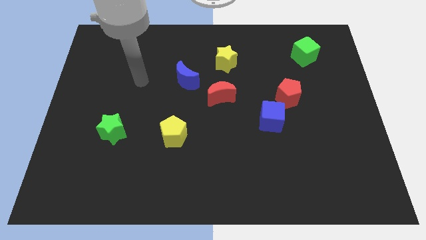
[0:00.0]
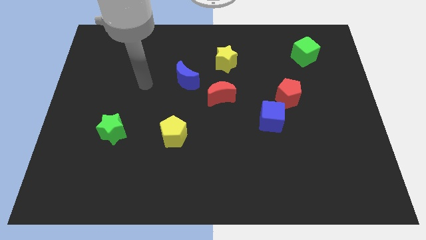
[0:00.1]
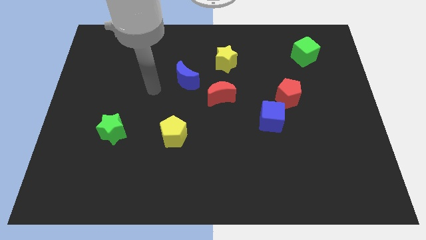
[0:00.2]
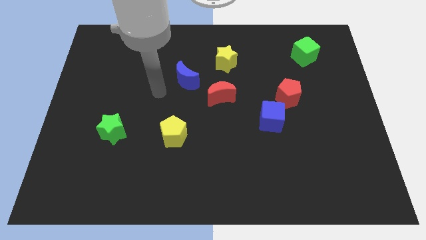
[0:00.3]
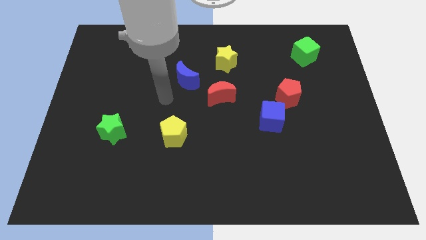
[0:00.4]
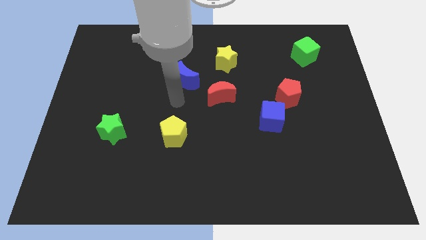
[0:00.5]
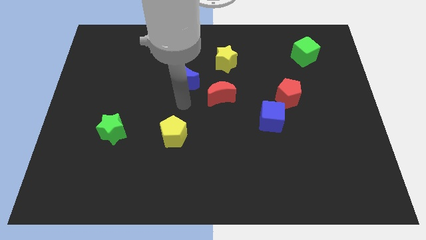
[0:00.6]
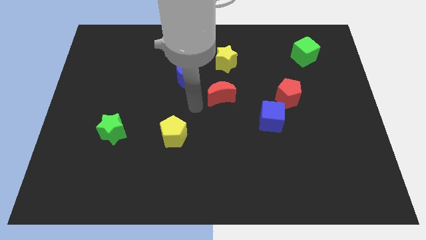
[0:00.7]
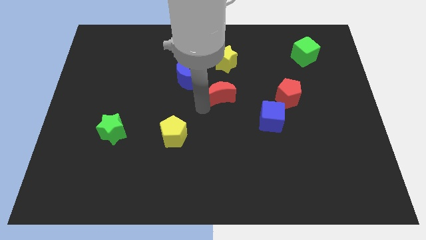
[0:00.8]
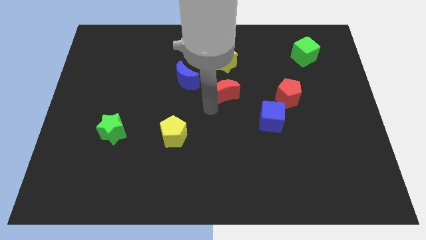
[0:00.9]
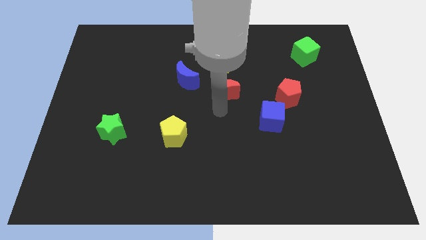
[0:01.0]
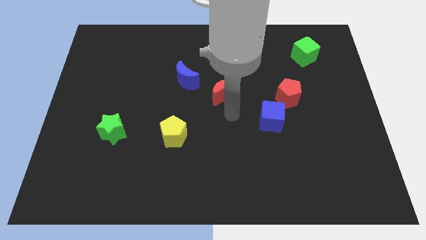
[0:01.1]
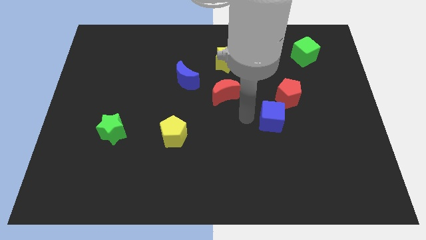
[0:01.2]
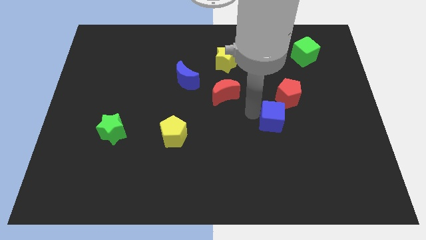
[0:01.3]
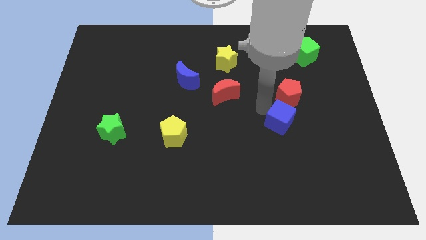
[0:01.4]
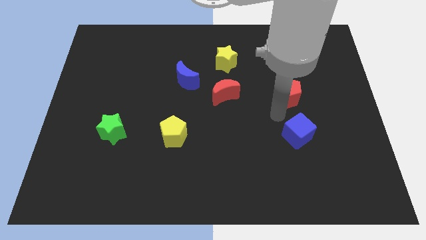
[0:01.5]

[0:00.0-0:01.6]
move the red pentagon away from the blue cube

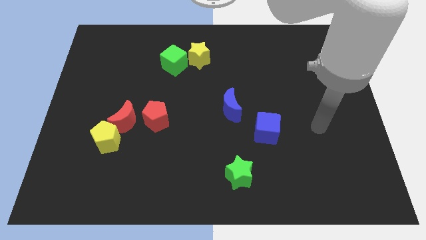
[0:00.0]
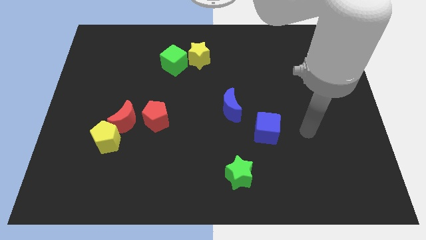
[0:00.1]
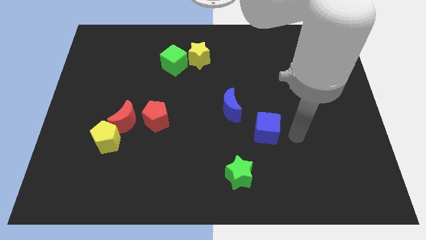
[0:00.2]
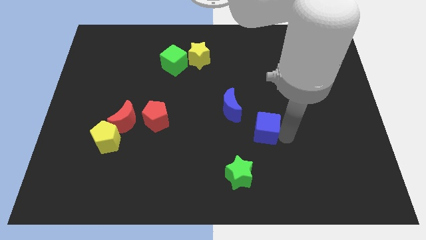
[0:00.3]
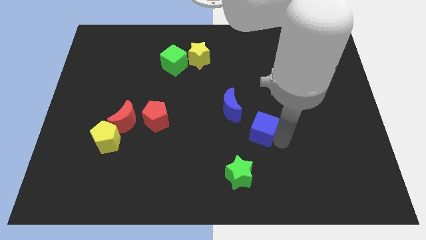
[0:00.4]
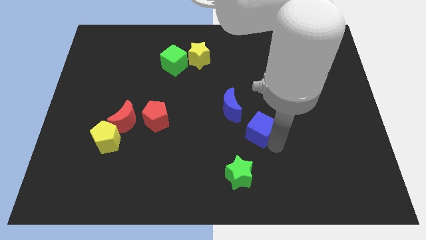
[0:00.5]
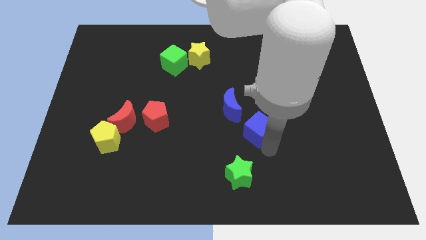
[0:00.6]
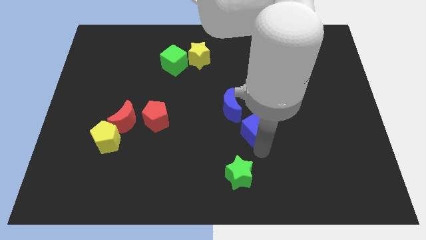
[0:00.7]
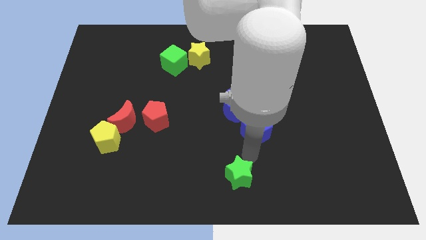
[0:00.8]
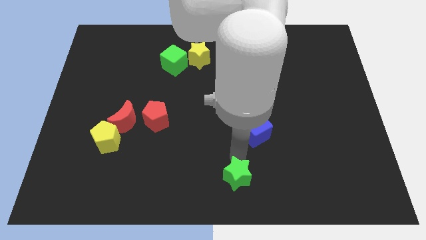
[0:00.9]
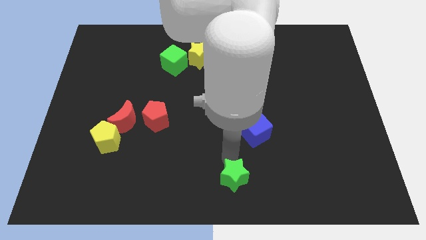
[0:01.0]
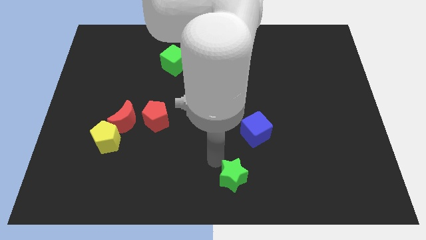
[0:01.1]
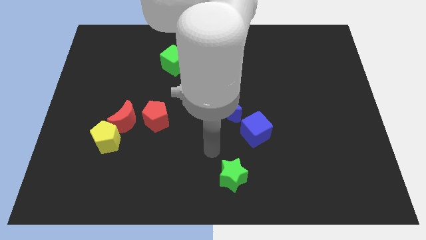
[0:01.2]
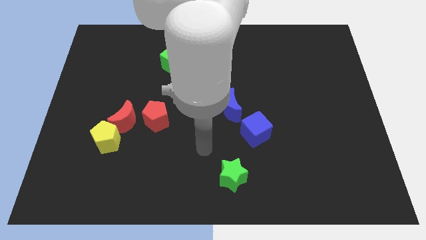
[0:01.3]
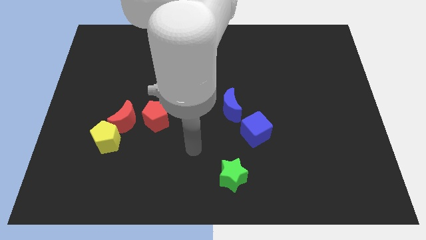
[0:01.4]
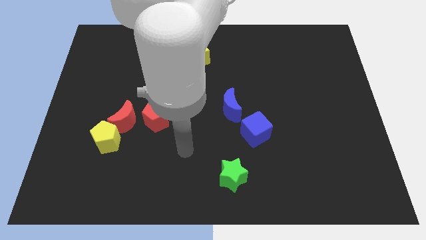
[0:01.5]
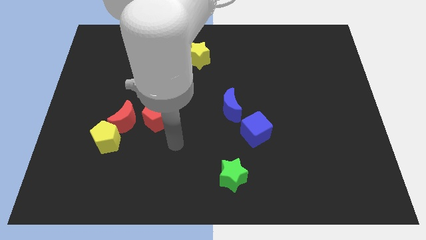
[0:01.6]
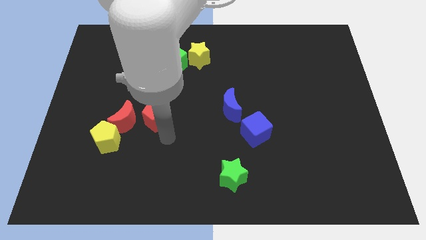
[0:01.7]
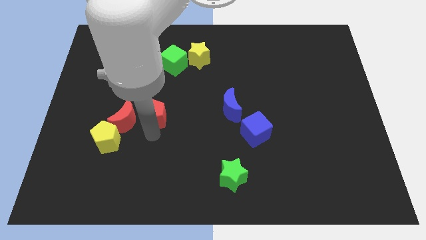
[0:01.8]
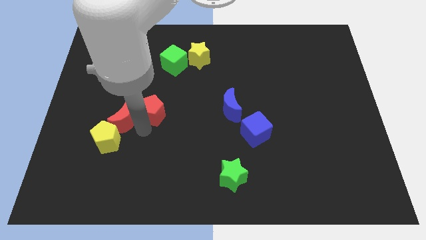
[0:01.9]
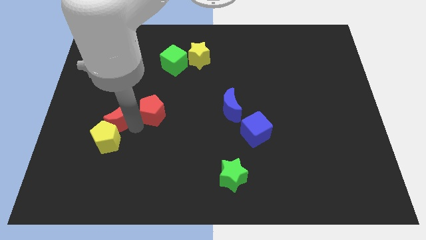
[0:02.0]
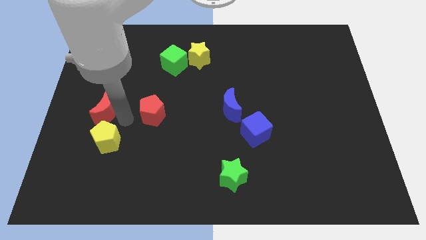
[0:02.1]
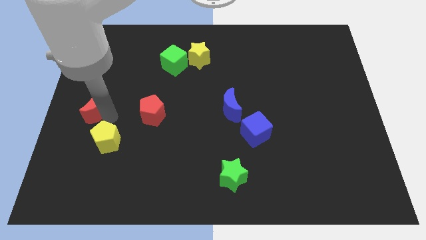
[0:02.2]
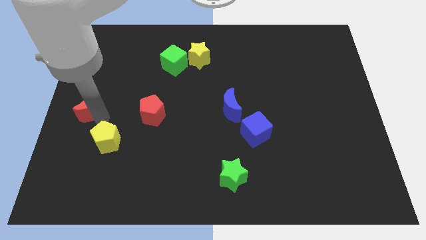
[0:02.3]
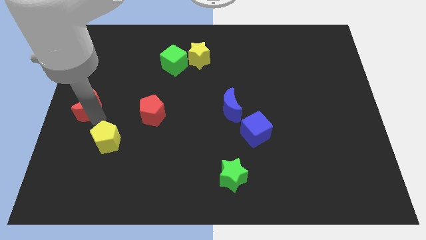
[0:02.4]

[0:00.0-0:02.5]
move the yellow pentagon away from the red moon

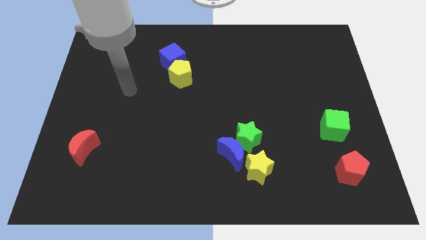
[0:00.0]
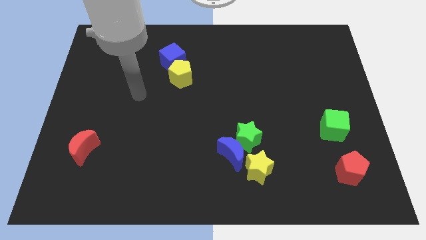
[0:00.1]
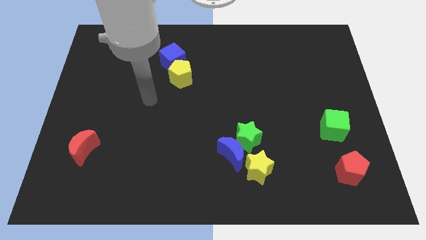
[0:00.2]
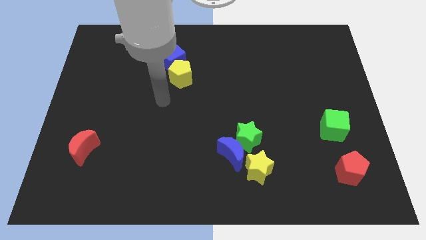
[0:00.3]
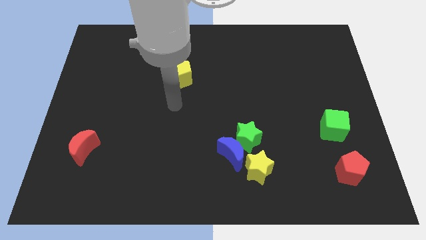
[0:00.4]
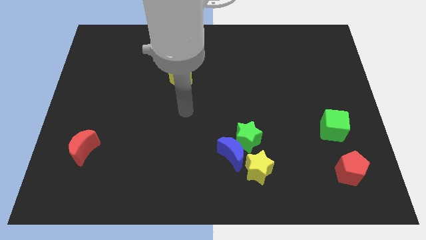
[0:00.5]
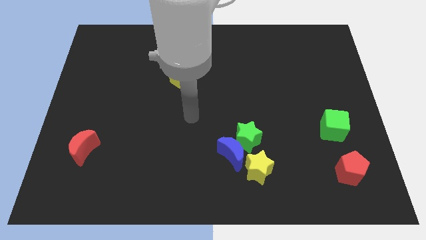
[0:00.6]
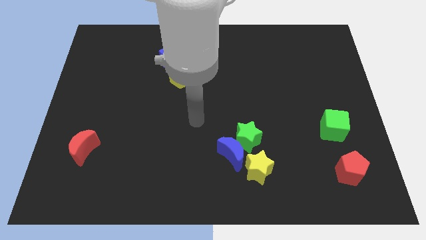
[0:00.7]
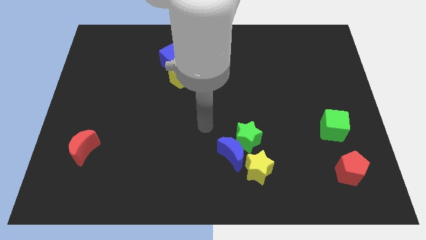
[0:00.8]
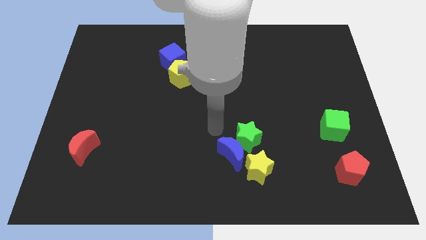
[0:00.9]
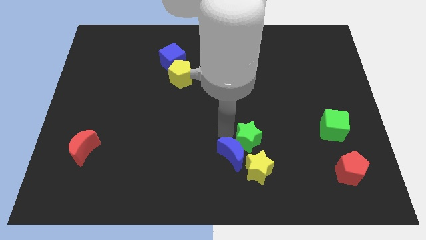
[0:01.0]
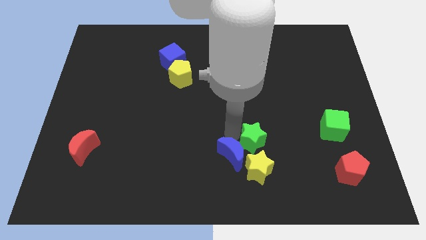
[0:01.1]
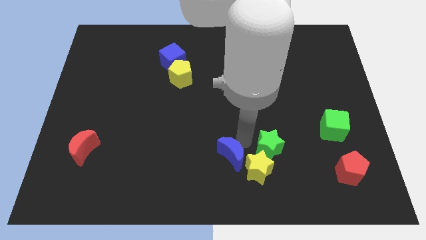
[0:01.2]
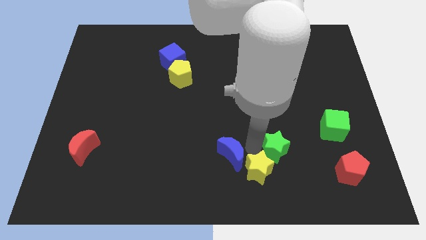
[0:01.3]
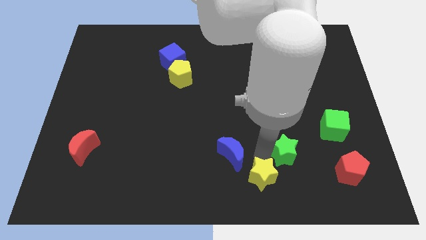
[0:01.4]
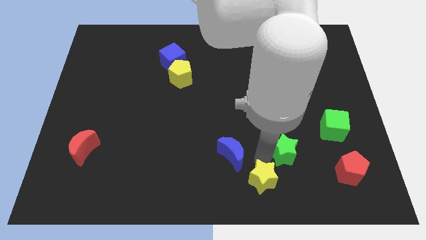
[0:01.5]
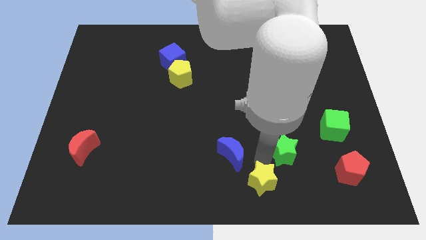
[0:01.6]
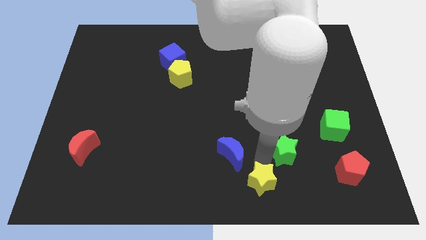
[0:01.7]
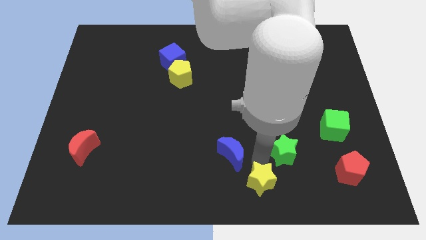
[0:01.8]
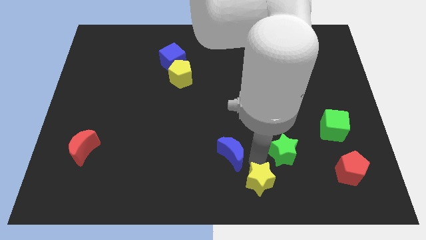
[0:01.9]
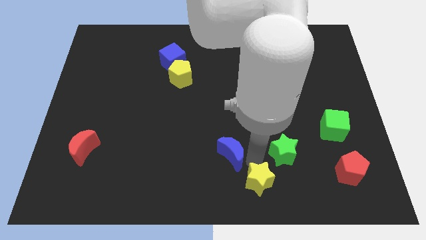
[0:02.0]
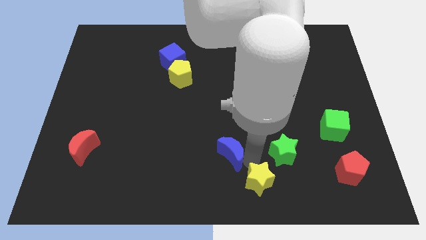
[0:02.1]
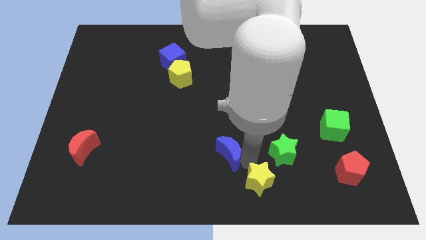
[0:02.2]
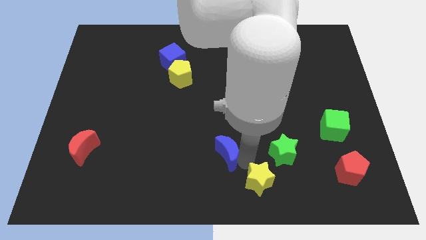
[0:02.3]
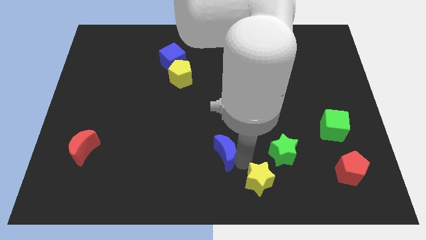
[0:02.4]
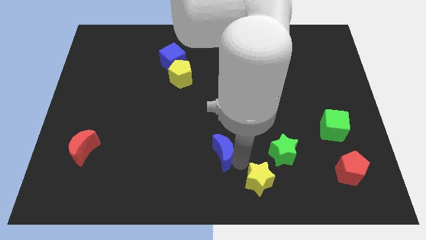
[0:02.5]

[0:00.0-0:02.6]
pull the blue moon apart from the green star and yellow star

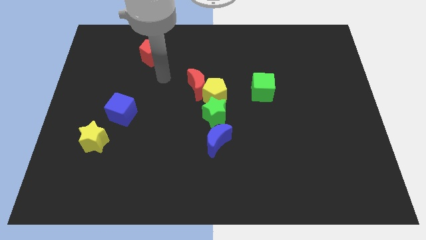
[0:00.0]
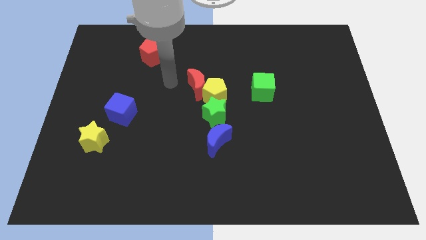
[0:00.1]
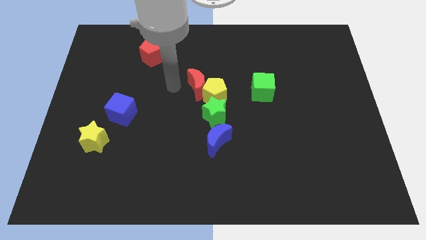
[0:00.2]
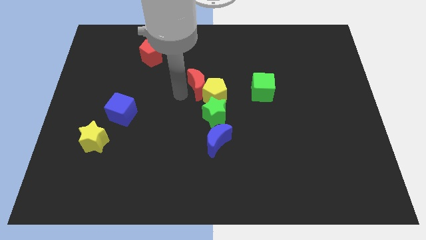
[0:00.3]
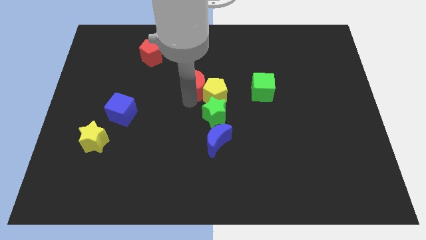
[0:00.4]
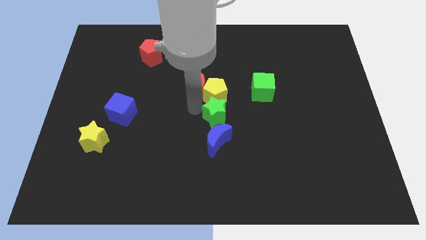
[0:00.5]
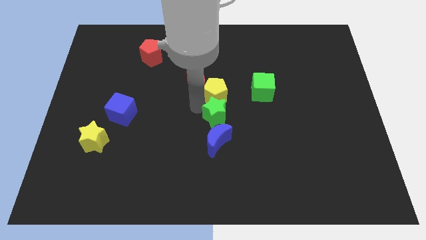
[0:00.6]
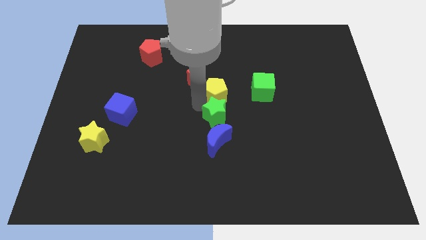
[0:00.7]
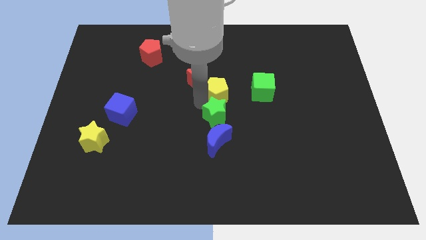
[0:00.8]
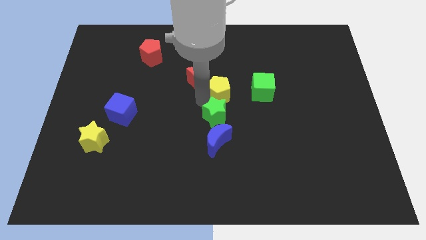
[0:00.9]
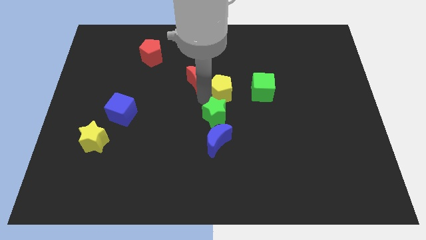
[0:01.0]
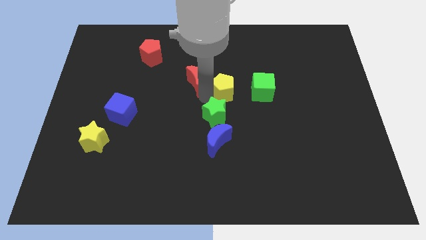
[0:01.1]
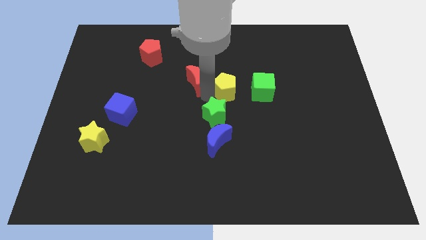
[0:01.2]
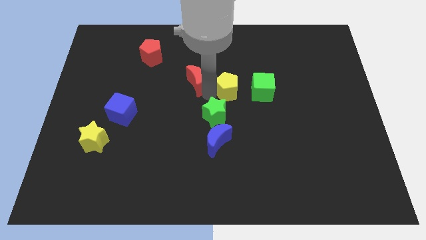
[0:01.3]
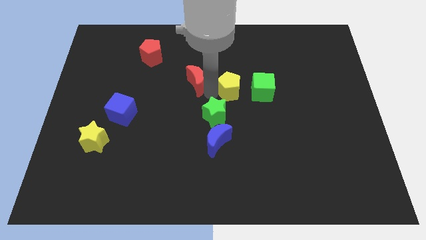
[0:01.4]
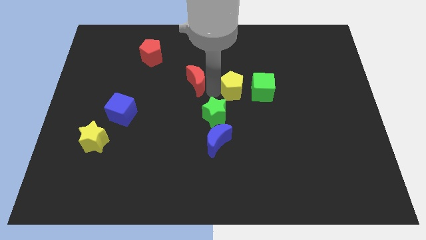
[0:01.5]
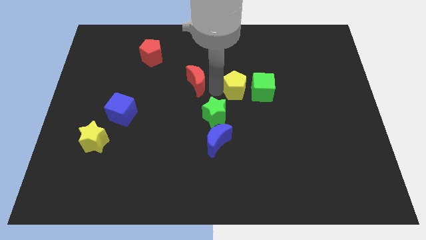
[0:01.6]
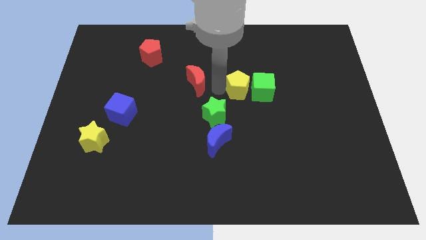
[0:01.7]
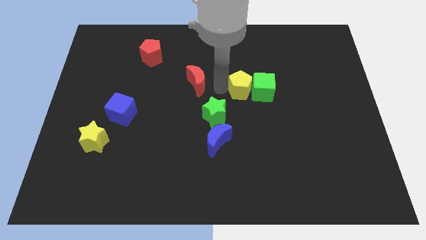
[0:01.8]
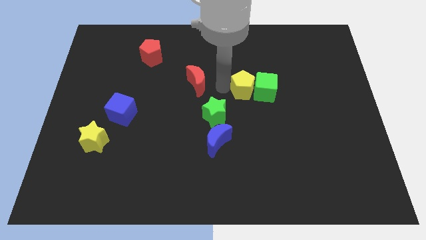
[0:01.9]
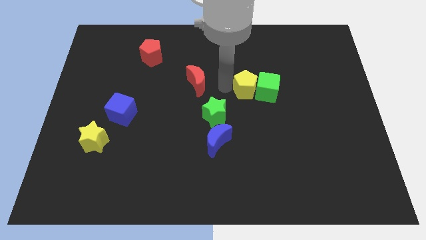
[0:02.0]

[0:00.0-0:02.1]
pull the yellow pentagon apart from the red moon and green star

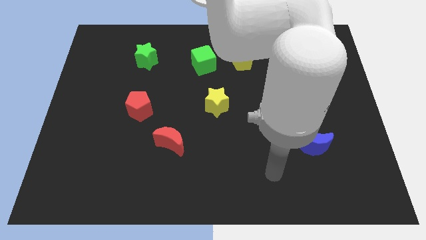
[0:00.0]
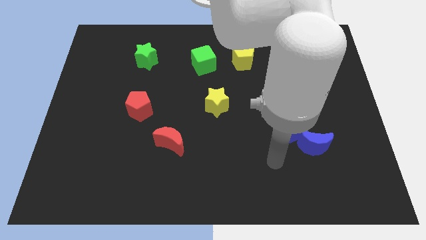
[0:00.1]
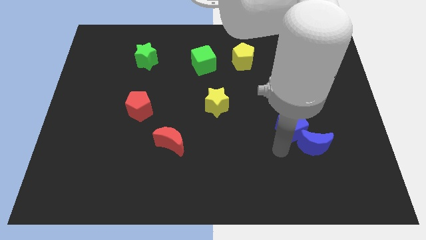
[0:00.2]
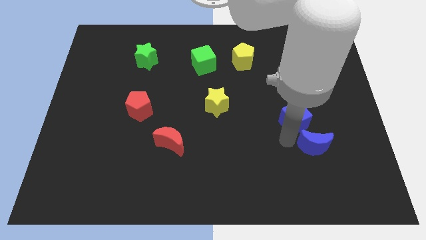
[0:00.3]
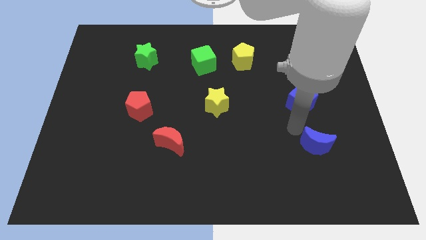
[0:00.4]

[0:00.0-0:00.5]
pull the blue moon apart from the blue cube
